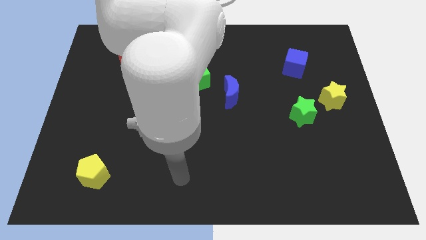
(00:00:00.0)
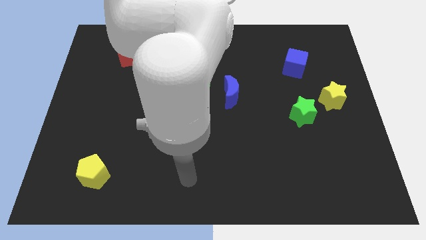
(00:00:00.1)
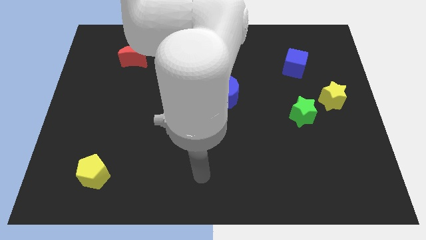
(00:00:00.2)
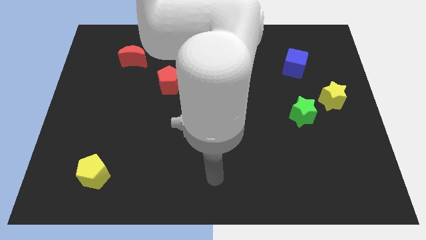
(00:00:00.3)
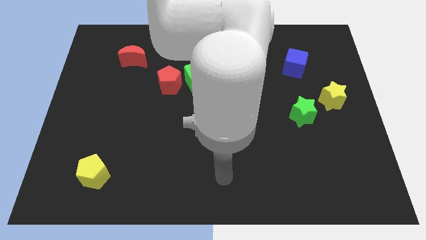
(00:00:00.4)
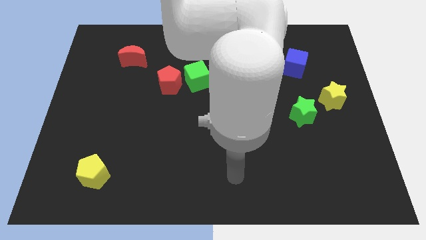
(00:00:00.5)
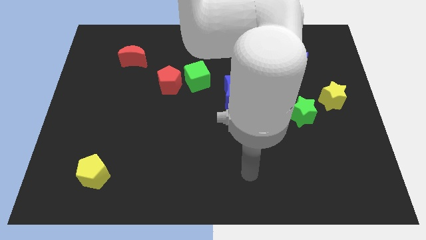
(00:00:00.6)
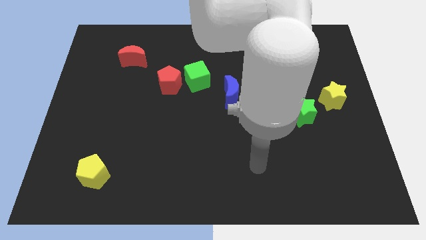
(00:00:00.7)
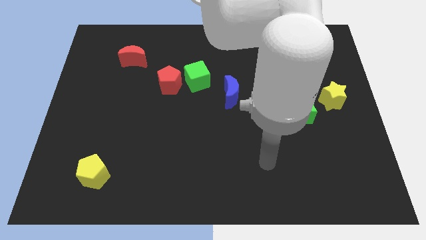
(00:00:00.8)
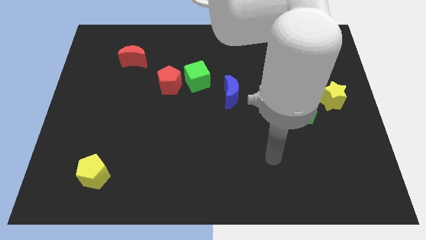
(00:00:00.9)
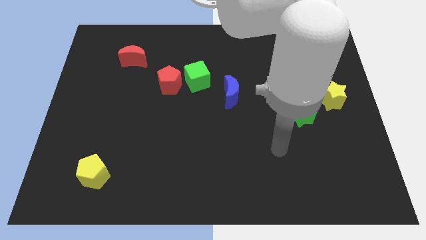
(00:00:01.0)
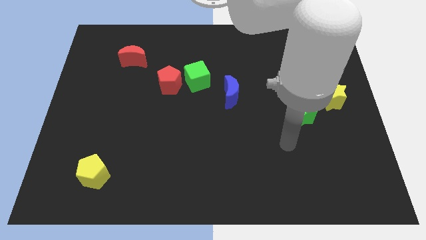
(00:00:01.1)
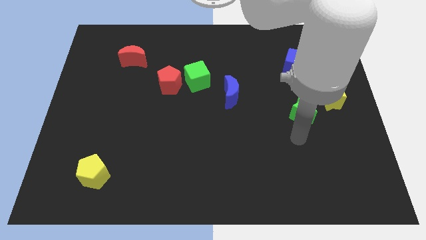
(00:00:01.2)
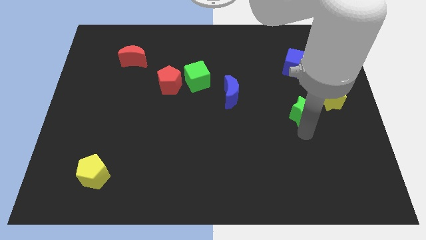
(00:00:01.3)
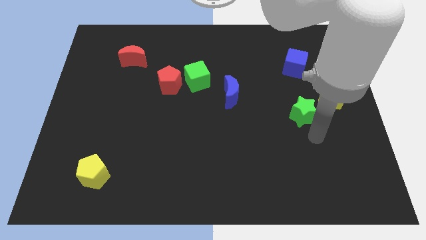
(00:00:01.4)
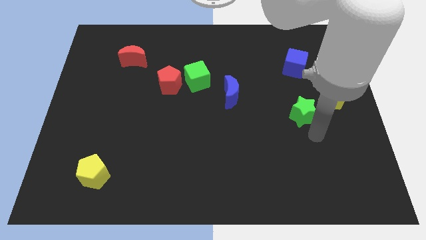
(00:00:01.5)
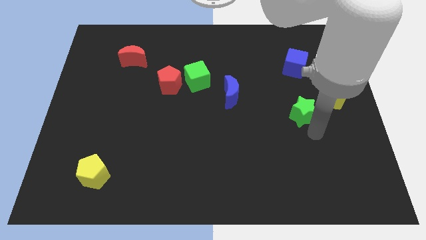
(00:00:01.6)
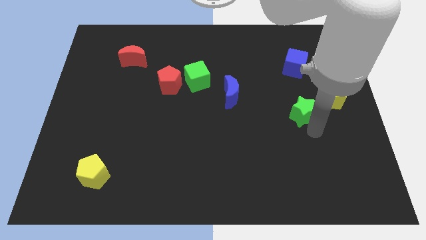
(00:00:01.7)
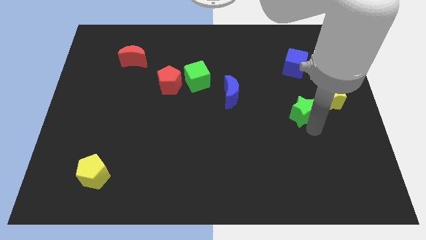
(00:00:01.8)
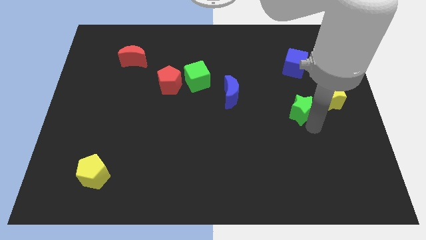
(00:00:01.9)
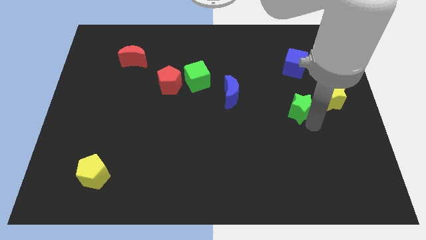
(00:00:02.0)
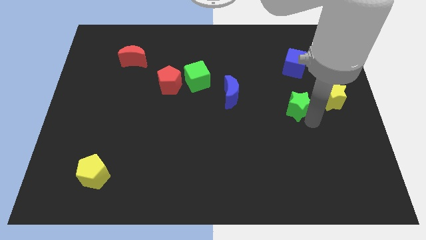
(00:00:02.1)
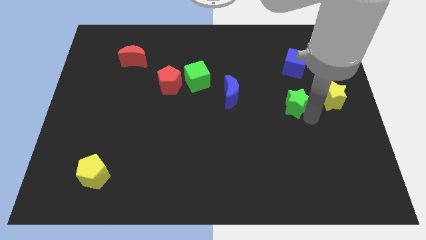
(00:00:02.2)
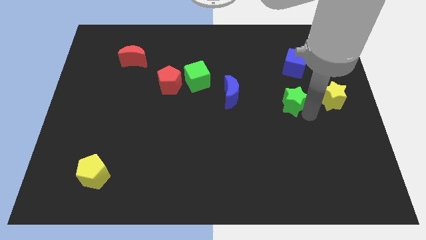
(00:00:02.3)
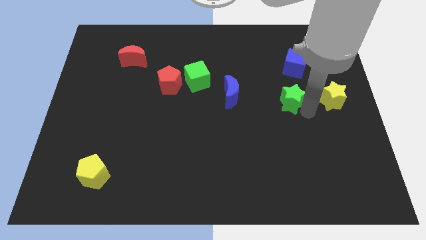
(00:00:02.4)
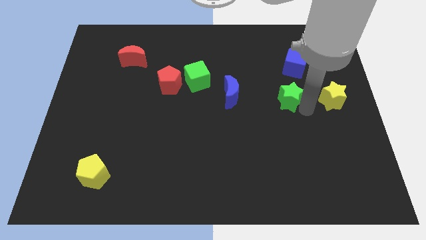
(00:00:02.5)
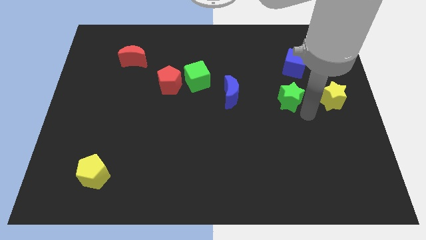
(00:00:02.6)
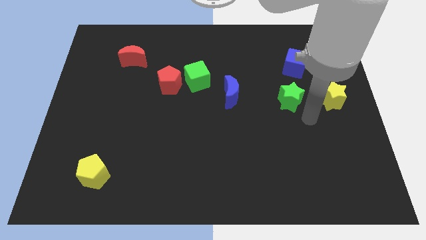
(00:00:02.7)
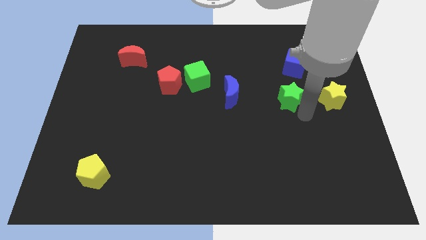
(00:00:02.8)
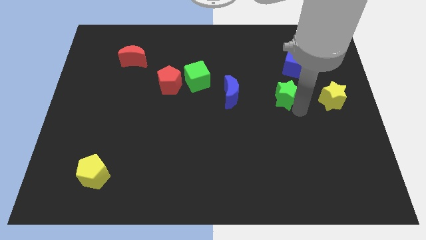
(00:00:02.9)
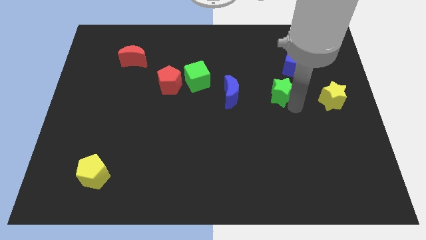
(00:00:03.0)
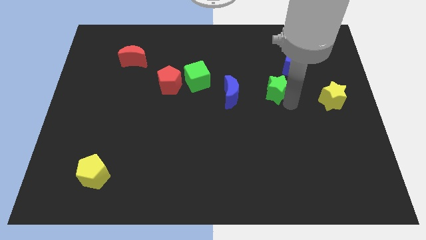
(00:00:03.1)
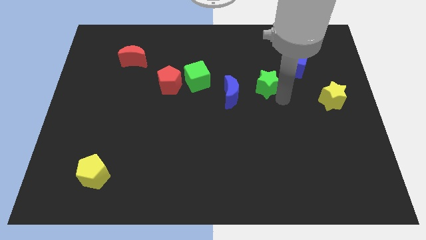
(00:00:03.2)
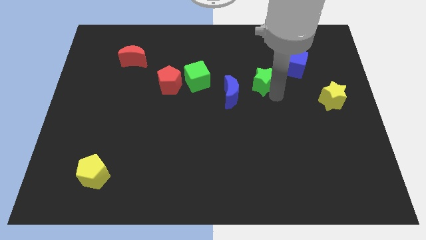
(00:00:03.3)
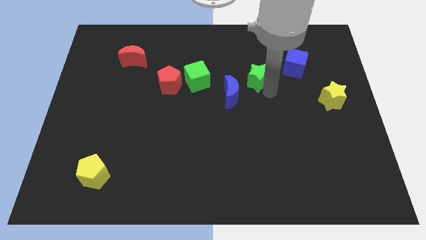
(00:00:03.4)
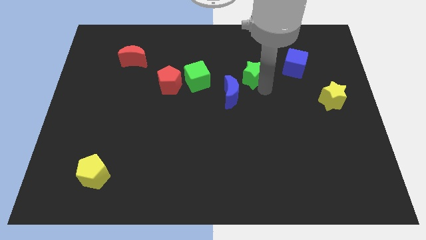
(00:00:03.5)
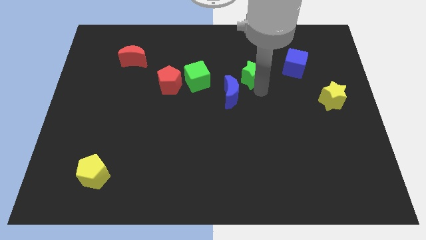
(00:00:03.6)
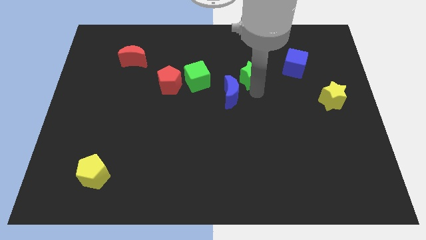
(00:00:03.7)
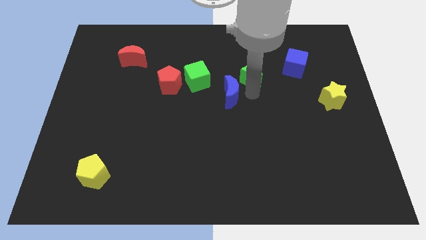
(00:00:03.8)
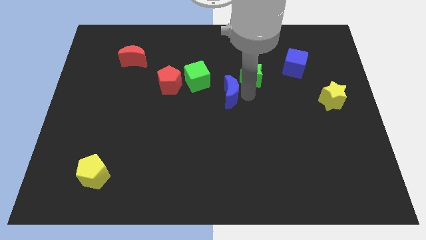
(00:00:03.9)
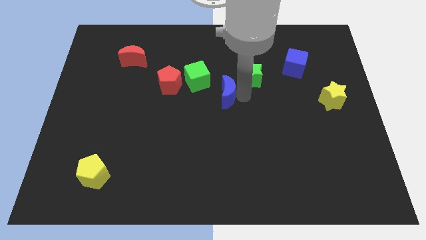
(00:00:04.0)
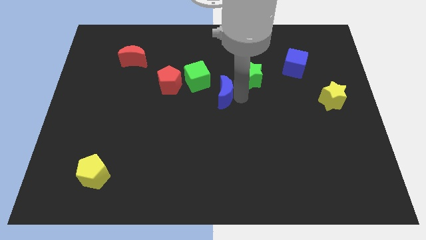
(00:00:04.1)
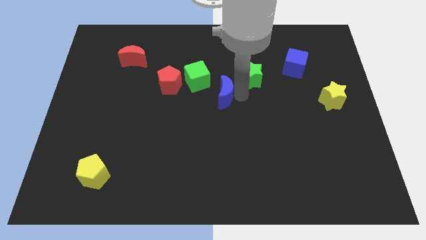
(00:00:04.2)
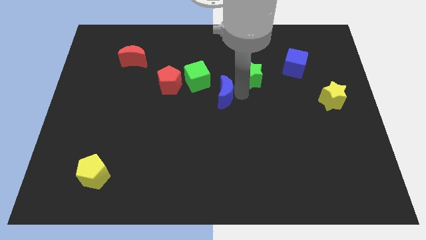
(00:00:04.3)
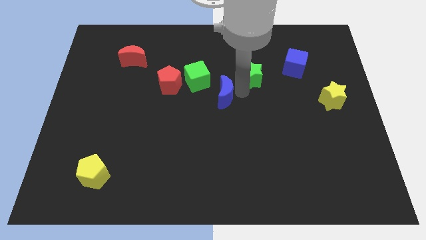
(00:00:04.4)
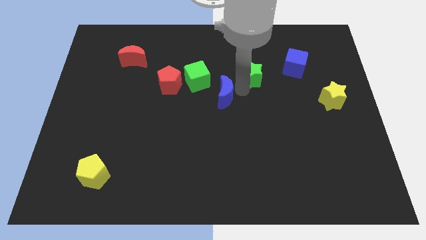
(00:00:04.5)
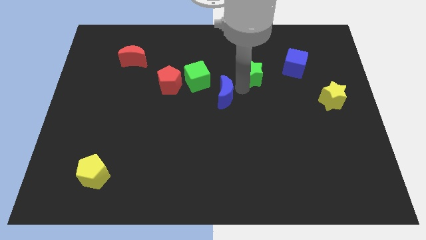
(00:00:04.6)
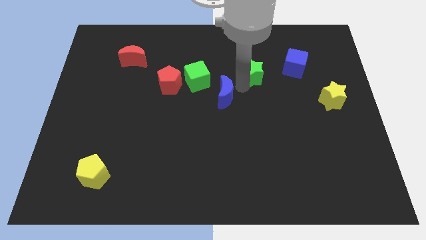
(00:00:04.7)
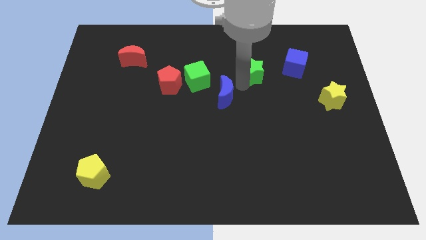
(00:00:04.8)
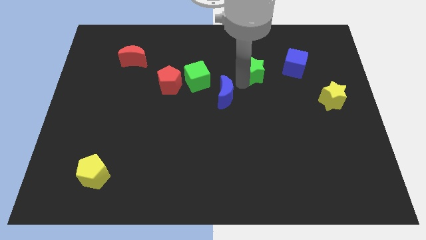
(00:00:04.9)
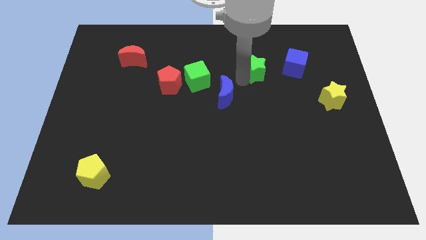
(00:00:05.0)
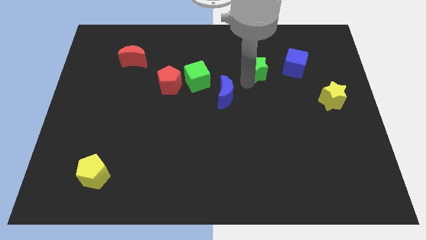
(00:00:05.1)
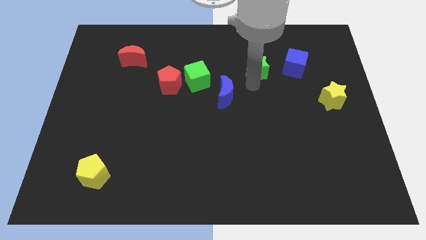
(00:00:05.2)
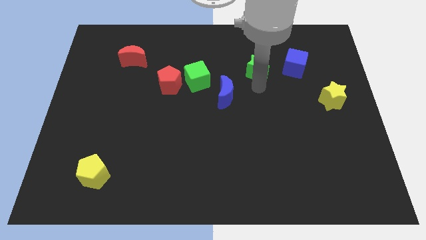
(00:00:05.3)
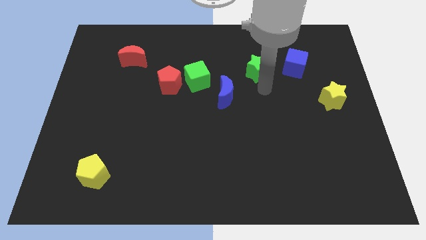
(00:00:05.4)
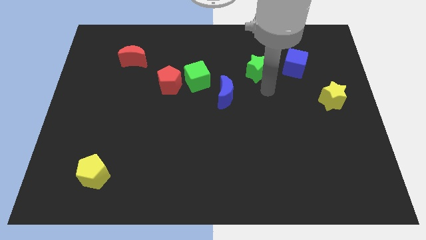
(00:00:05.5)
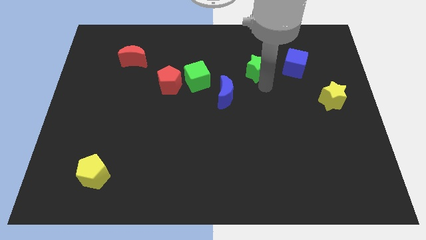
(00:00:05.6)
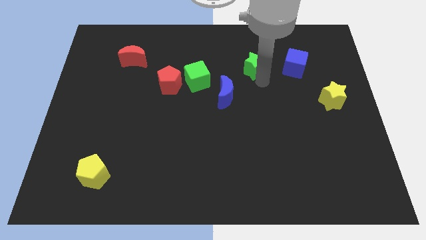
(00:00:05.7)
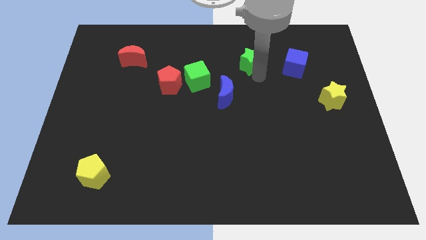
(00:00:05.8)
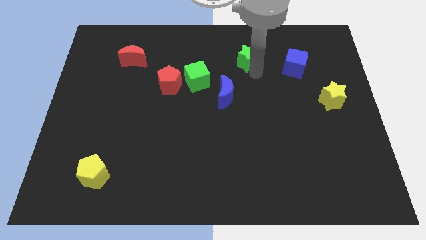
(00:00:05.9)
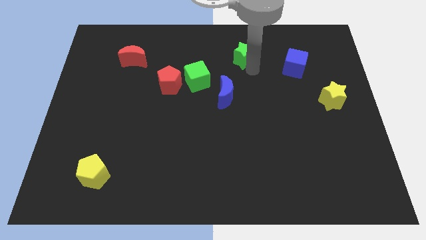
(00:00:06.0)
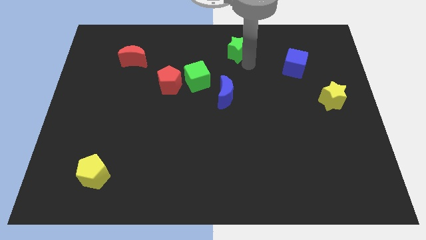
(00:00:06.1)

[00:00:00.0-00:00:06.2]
slide the green star to the top side
